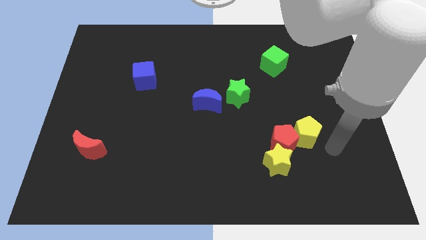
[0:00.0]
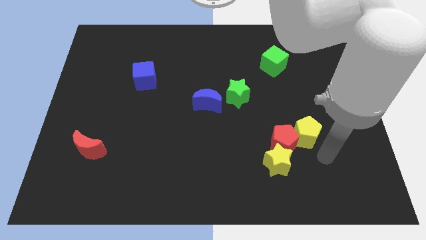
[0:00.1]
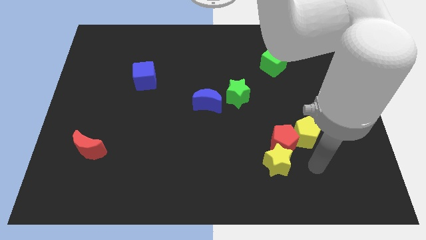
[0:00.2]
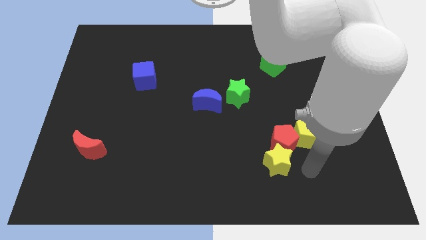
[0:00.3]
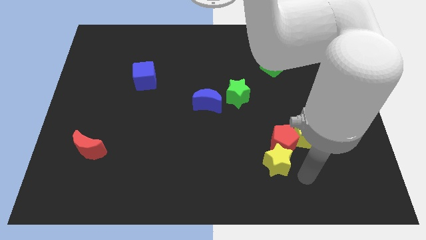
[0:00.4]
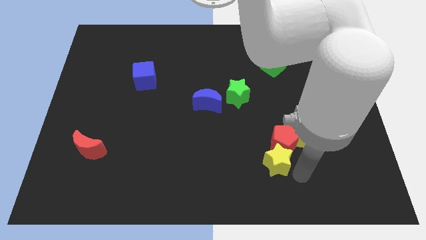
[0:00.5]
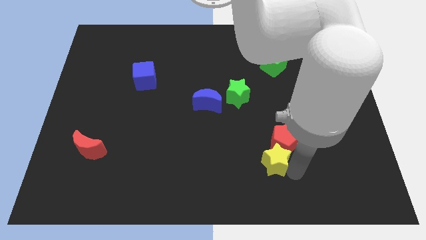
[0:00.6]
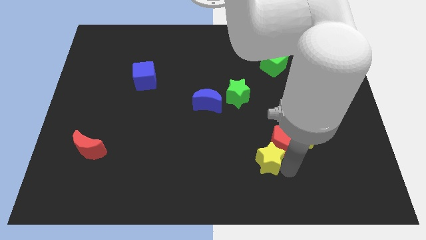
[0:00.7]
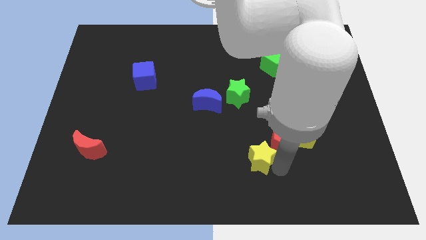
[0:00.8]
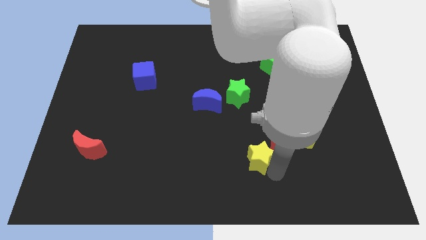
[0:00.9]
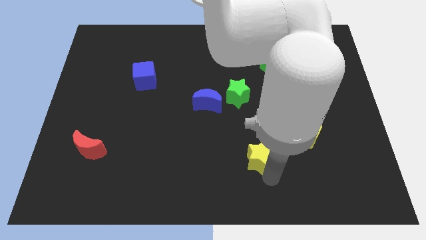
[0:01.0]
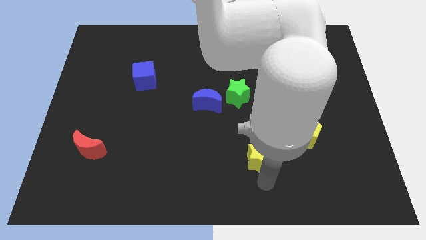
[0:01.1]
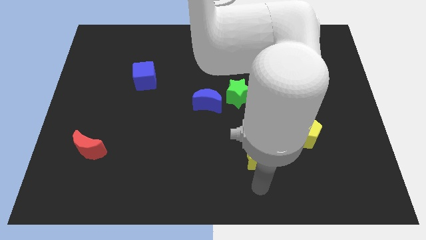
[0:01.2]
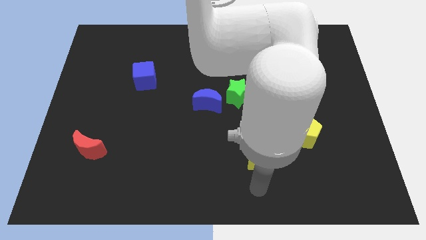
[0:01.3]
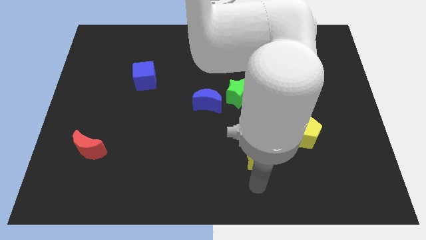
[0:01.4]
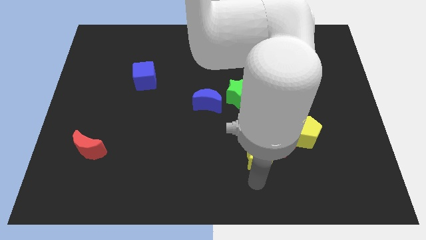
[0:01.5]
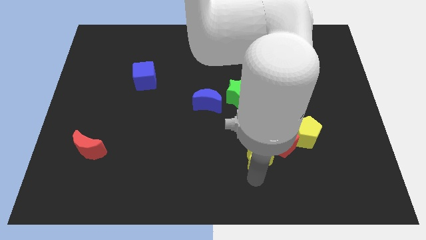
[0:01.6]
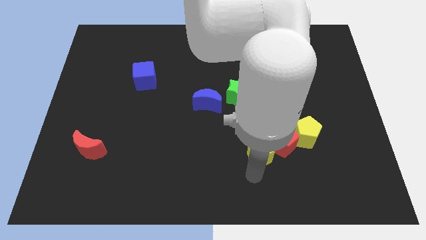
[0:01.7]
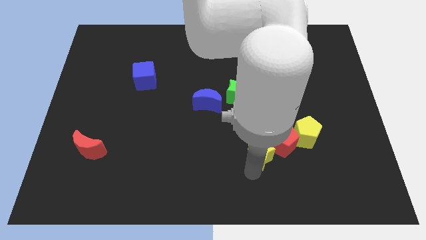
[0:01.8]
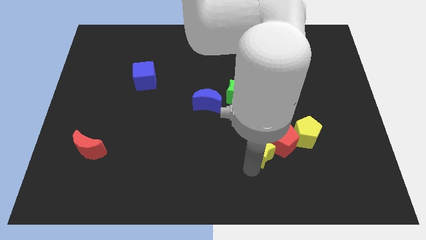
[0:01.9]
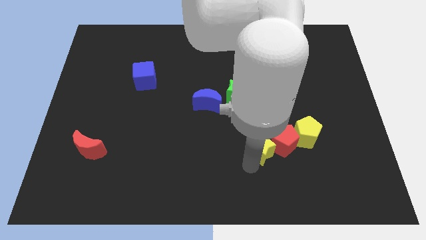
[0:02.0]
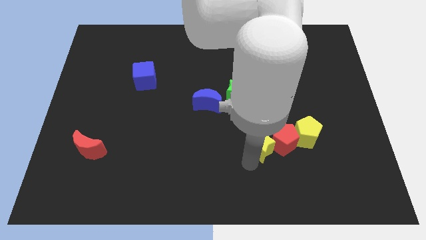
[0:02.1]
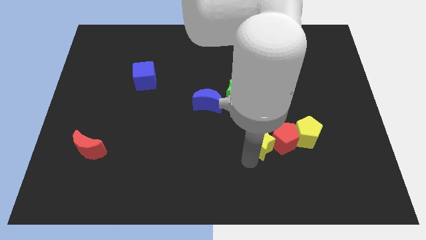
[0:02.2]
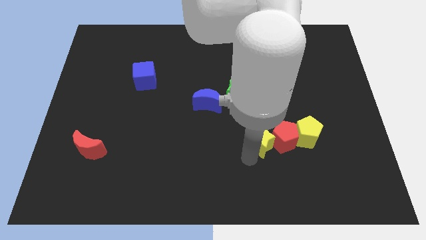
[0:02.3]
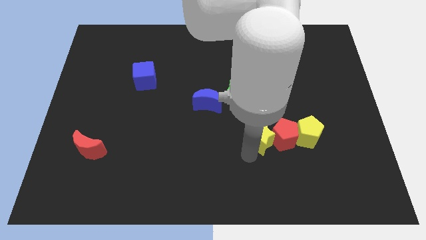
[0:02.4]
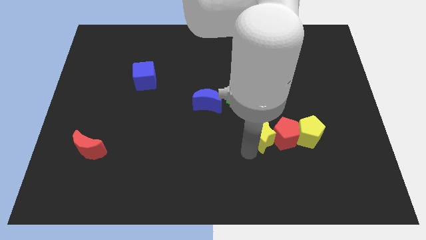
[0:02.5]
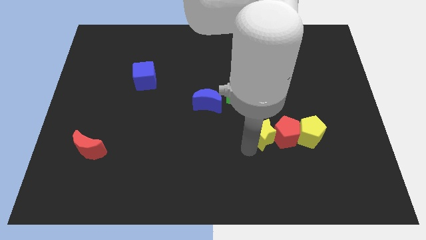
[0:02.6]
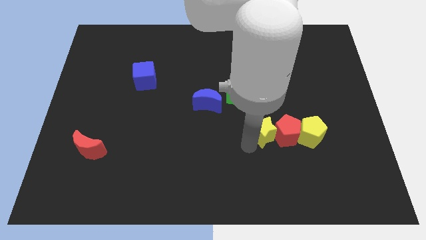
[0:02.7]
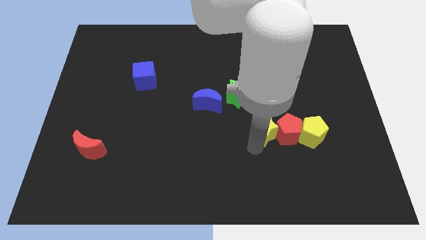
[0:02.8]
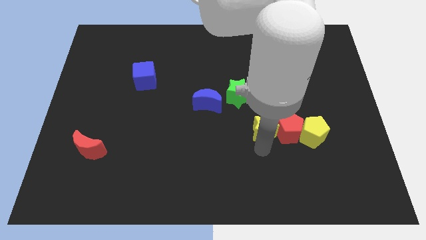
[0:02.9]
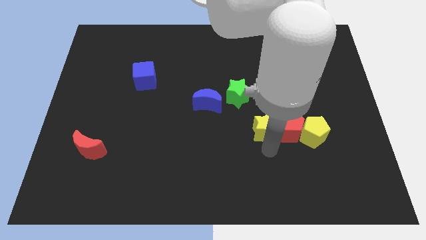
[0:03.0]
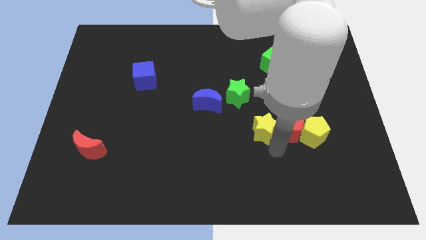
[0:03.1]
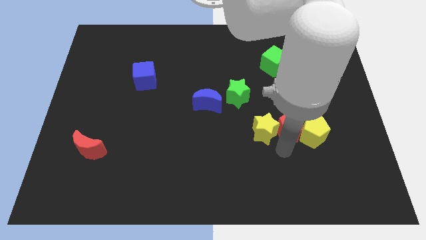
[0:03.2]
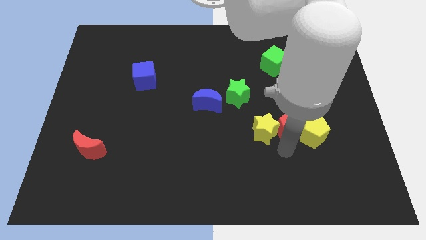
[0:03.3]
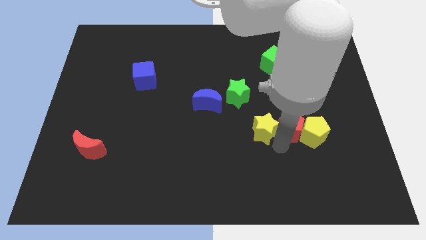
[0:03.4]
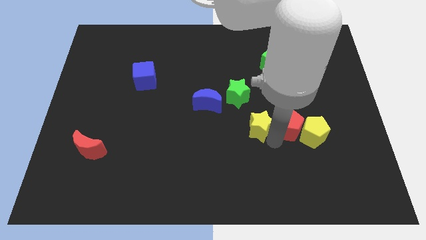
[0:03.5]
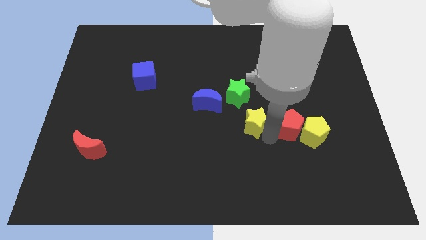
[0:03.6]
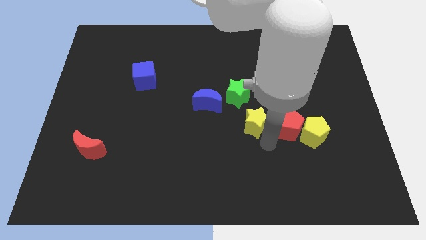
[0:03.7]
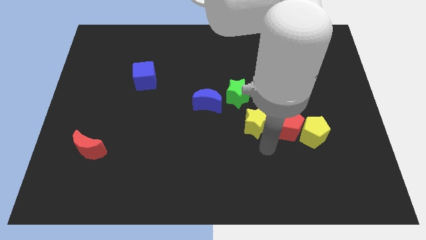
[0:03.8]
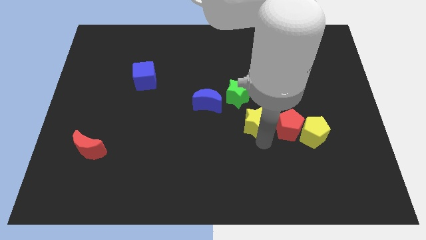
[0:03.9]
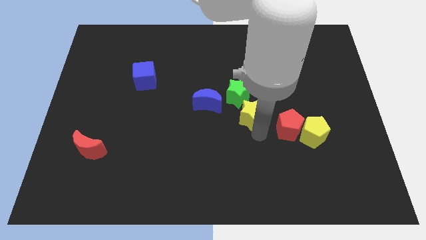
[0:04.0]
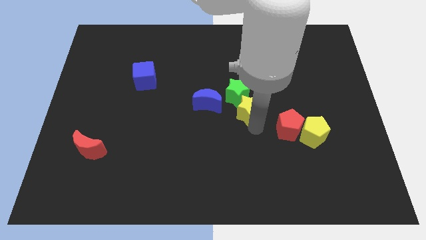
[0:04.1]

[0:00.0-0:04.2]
move the yellow star close to the green star

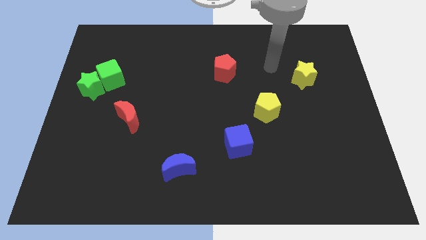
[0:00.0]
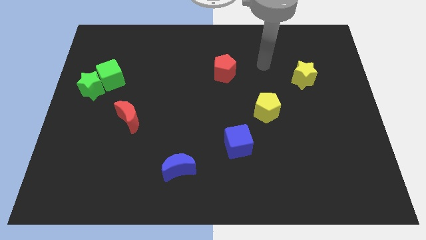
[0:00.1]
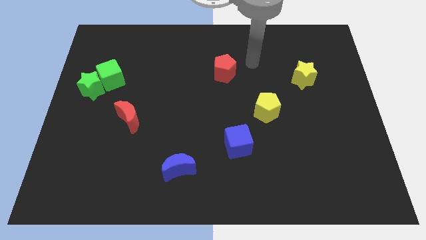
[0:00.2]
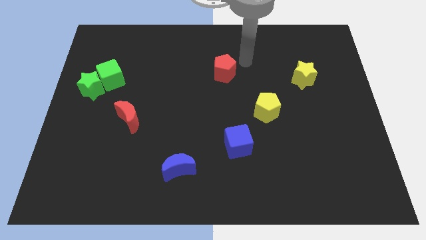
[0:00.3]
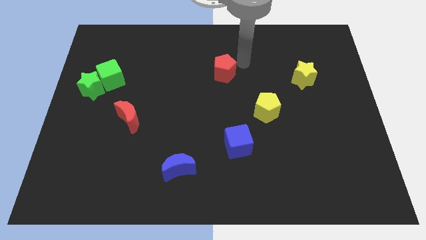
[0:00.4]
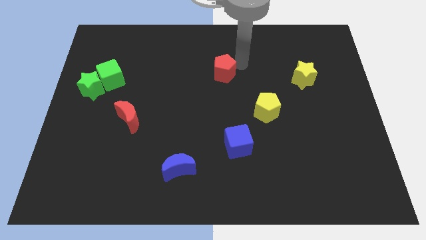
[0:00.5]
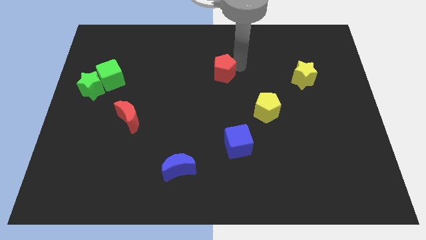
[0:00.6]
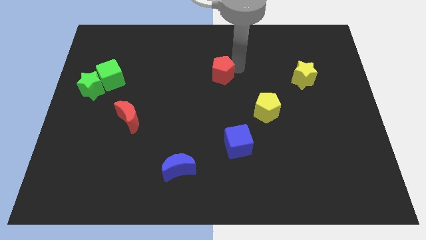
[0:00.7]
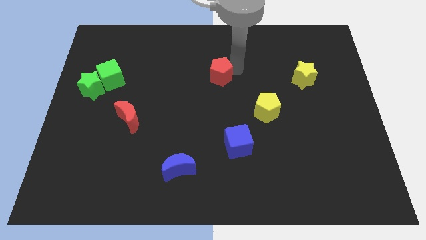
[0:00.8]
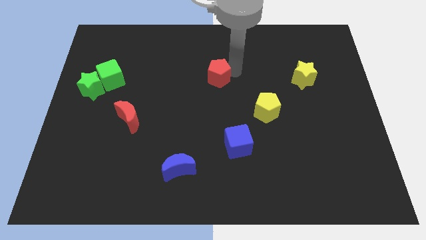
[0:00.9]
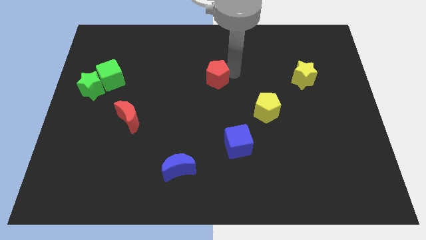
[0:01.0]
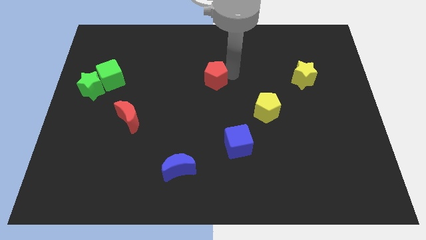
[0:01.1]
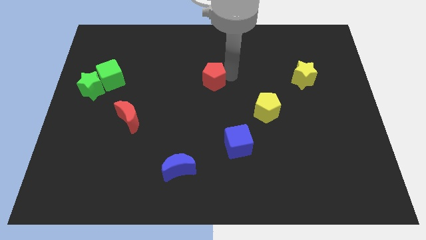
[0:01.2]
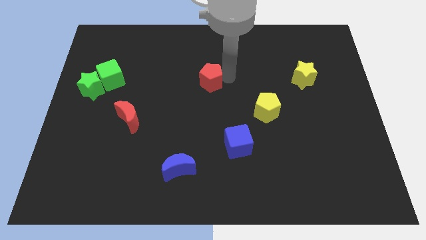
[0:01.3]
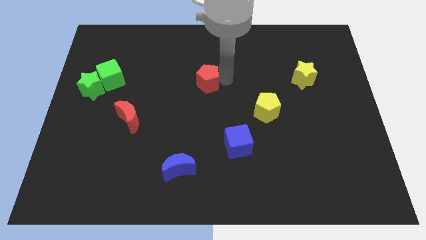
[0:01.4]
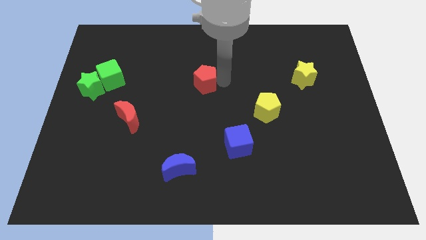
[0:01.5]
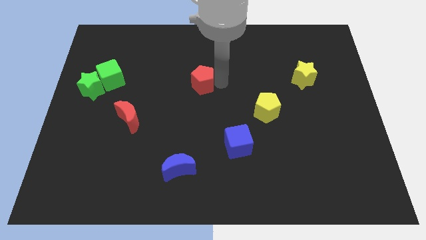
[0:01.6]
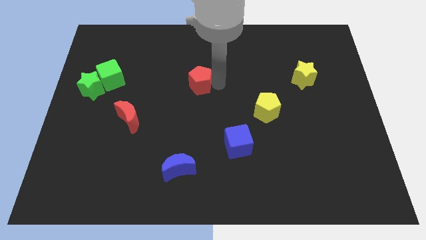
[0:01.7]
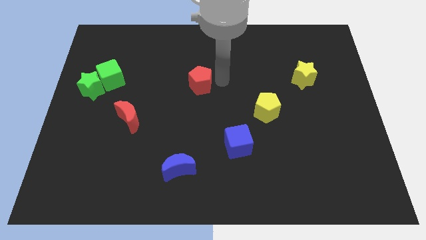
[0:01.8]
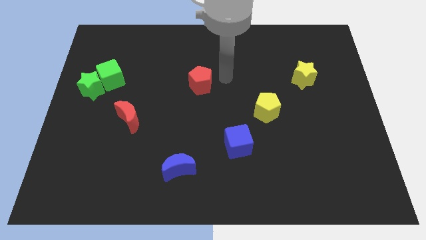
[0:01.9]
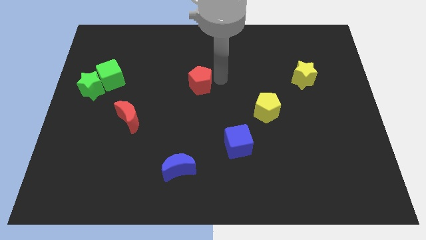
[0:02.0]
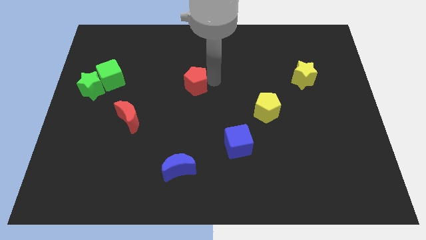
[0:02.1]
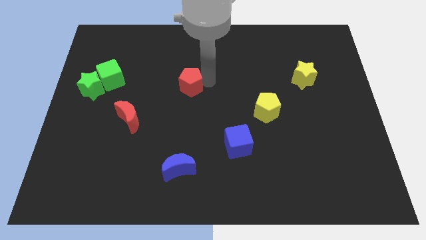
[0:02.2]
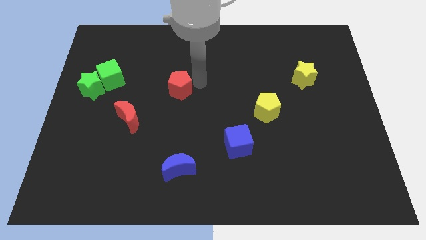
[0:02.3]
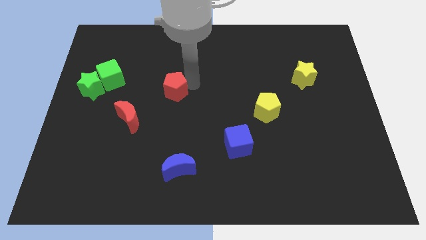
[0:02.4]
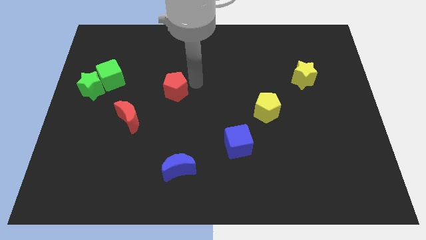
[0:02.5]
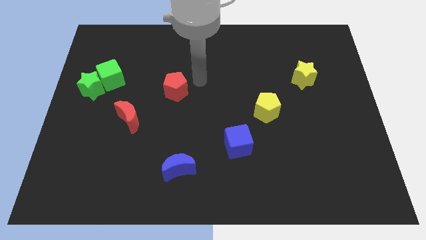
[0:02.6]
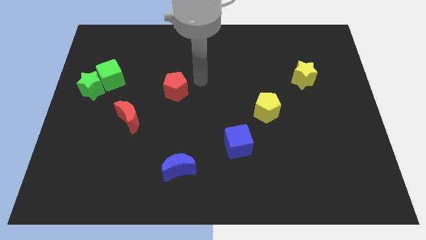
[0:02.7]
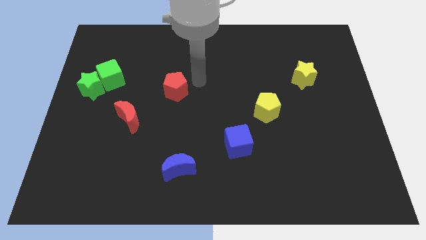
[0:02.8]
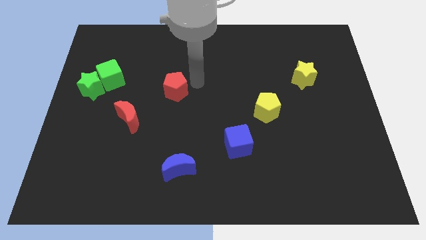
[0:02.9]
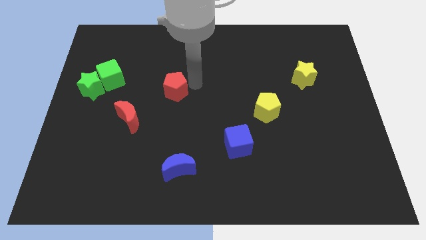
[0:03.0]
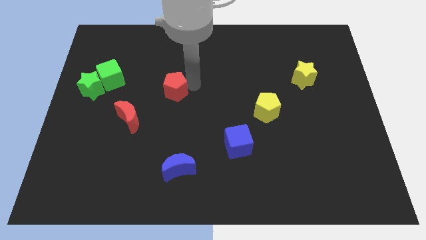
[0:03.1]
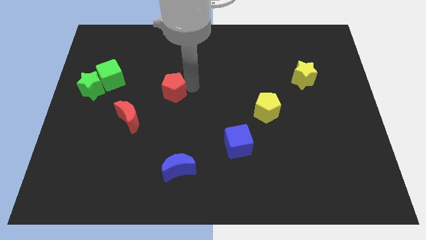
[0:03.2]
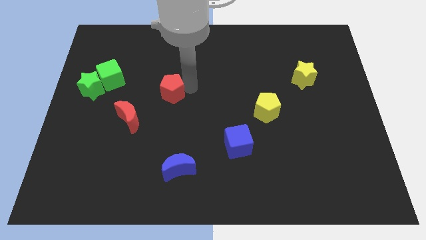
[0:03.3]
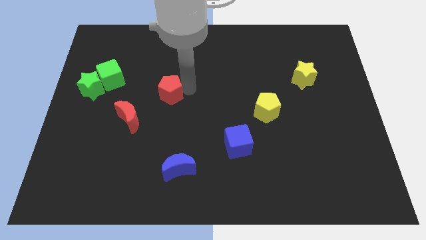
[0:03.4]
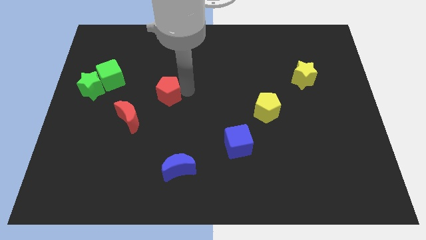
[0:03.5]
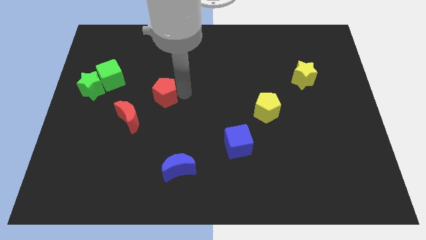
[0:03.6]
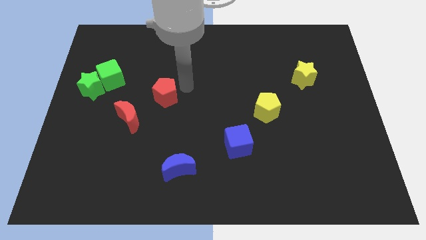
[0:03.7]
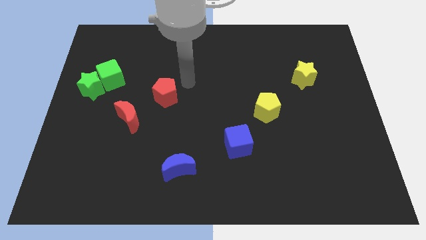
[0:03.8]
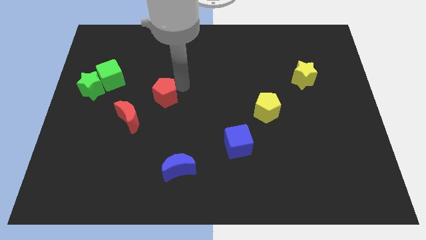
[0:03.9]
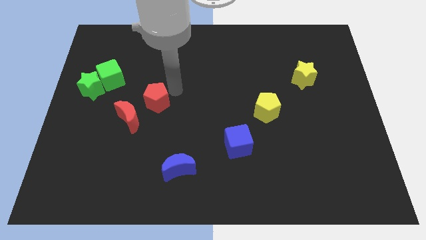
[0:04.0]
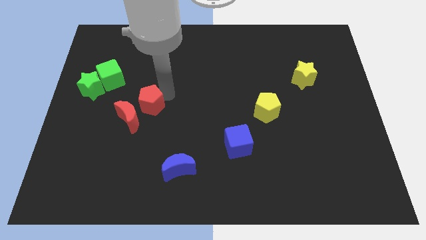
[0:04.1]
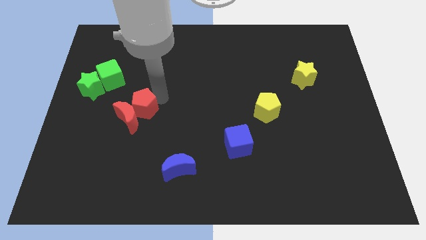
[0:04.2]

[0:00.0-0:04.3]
put the red pentagon to the red moon
